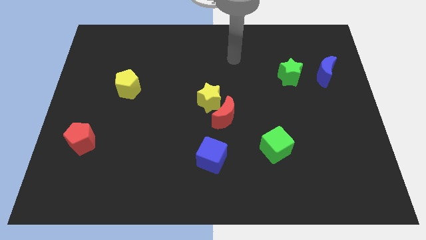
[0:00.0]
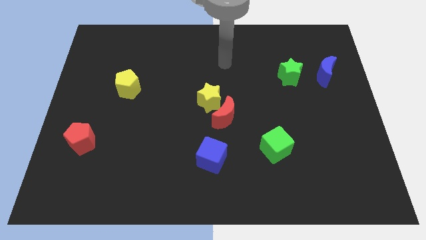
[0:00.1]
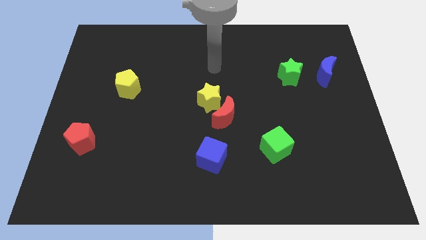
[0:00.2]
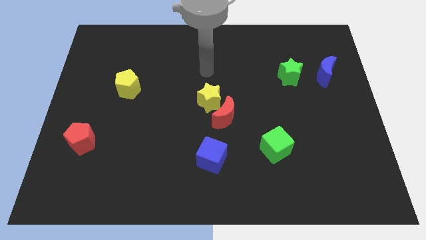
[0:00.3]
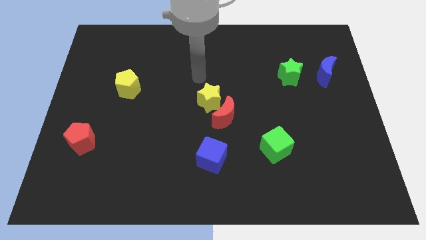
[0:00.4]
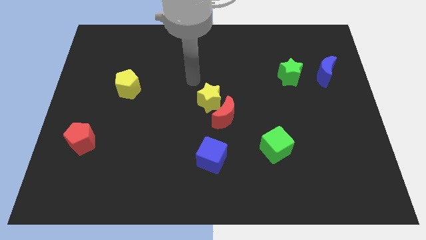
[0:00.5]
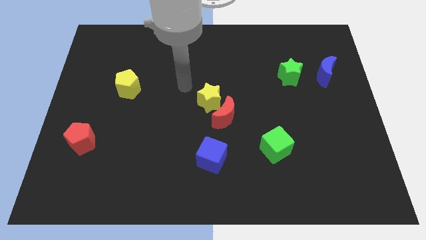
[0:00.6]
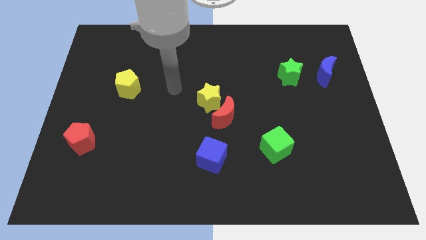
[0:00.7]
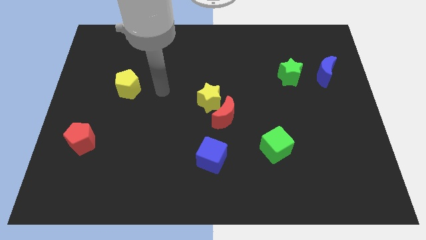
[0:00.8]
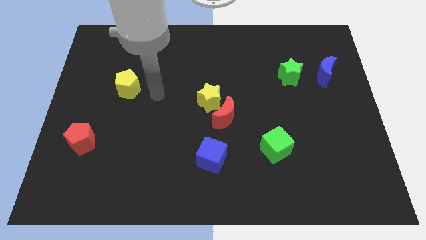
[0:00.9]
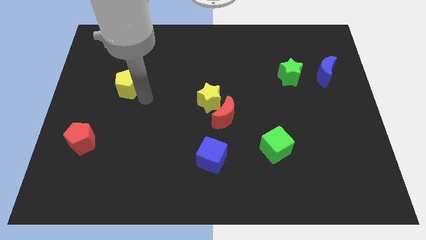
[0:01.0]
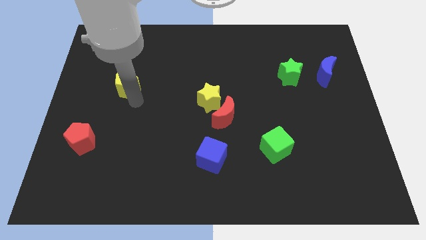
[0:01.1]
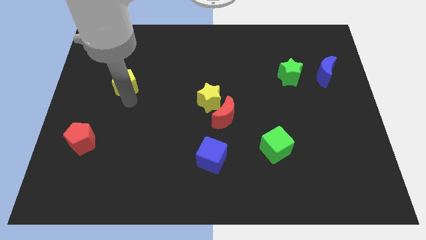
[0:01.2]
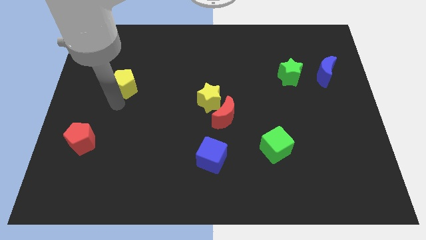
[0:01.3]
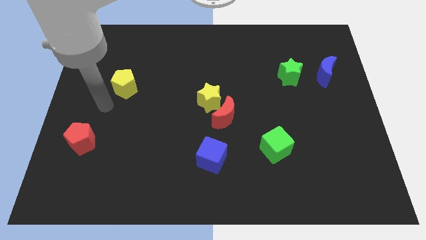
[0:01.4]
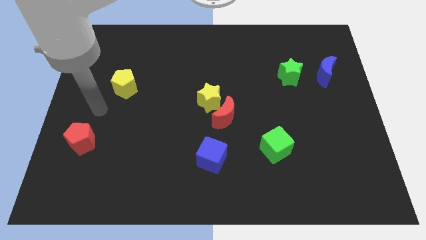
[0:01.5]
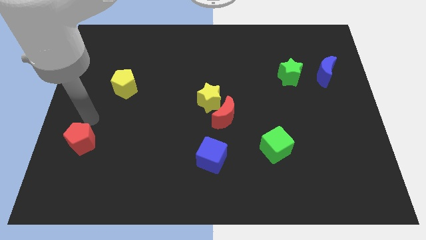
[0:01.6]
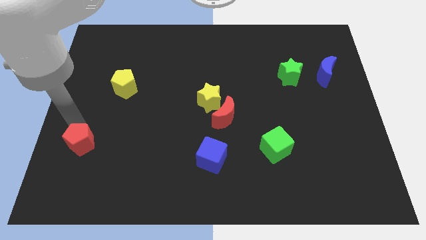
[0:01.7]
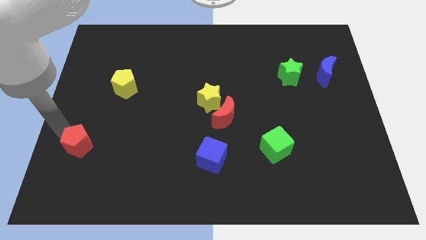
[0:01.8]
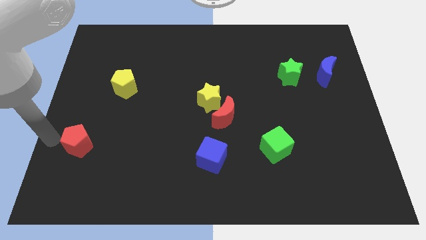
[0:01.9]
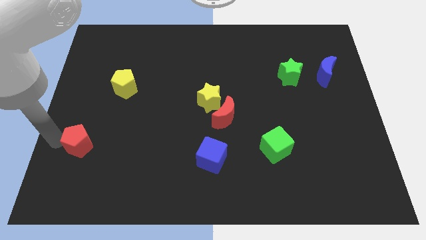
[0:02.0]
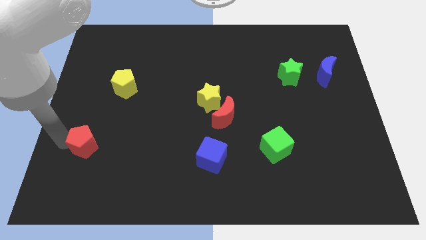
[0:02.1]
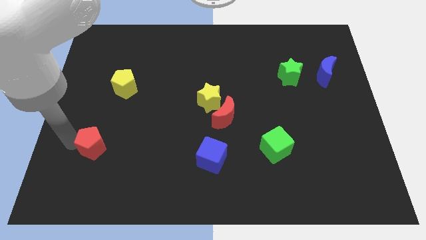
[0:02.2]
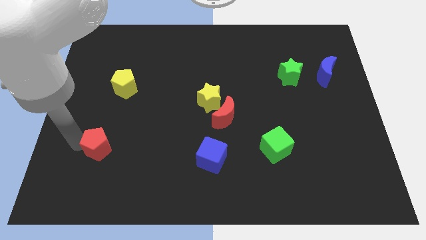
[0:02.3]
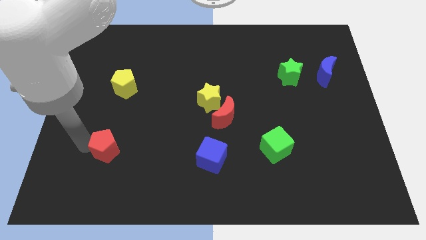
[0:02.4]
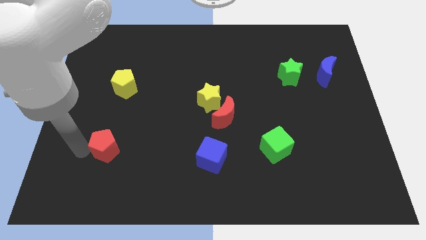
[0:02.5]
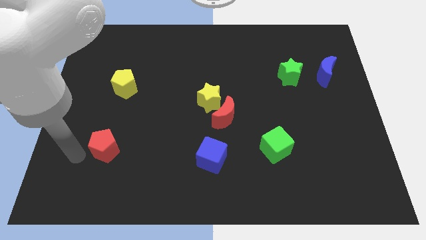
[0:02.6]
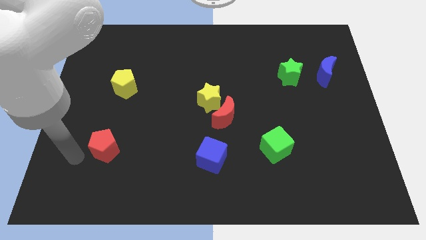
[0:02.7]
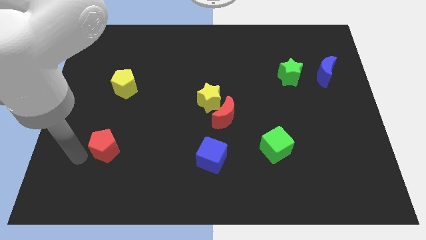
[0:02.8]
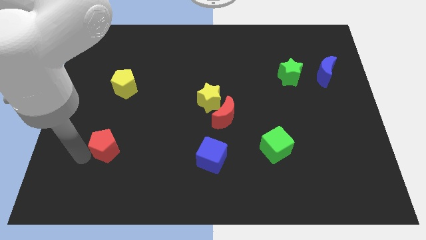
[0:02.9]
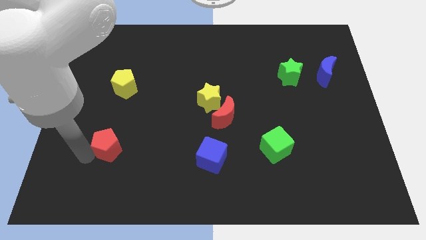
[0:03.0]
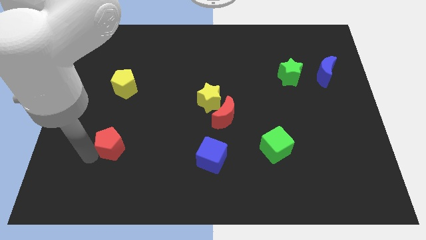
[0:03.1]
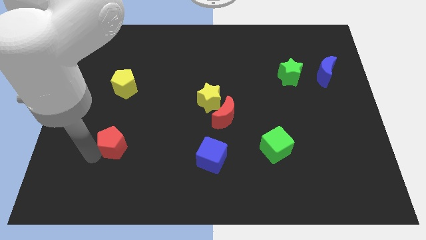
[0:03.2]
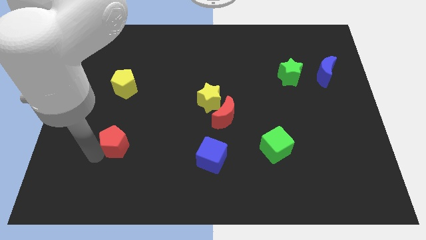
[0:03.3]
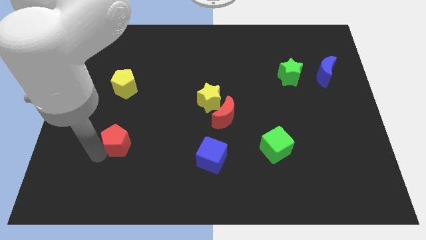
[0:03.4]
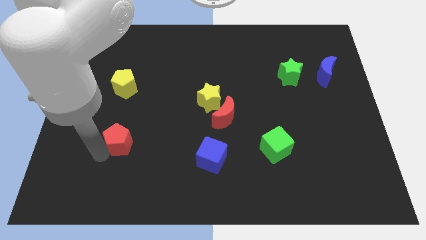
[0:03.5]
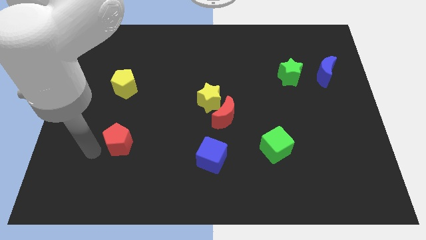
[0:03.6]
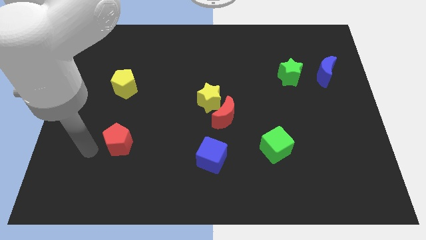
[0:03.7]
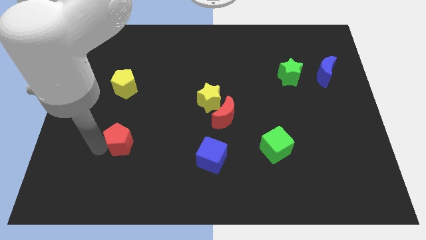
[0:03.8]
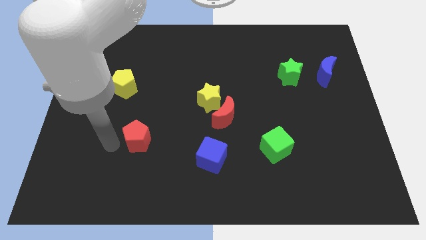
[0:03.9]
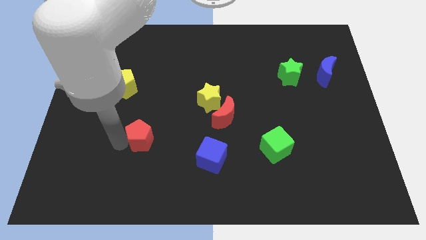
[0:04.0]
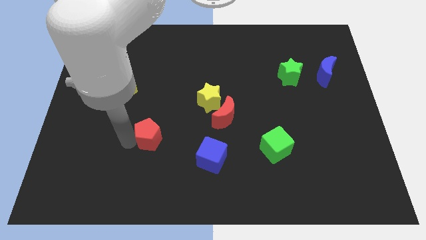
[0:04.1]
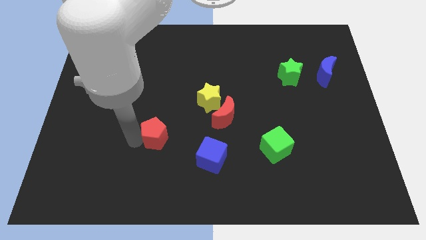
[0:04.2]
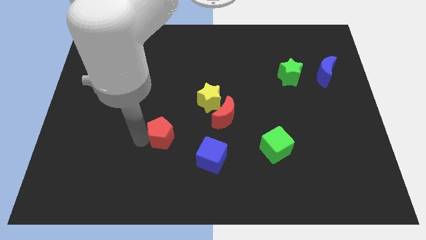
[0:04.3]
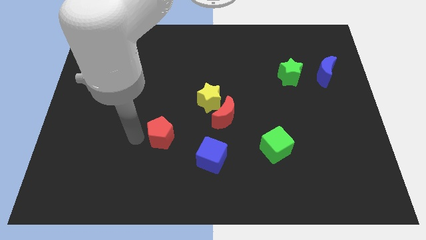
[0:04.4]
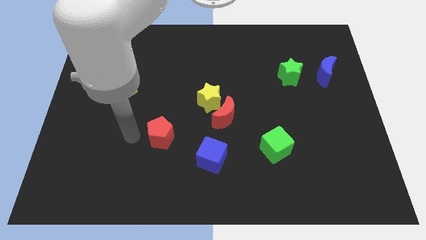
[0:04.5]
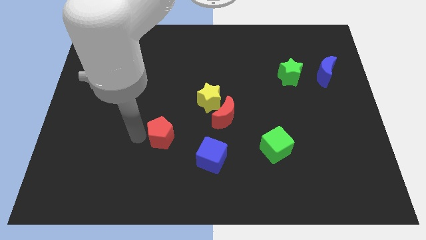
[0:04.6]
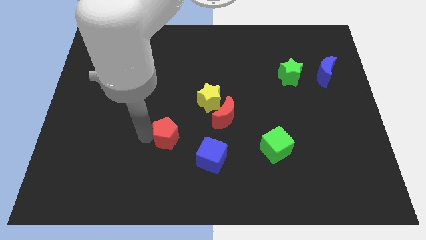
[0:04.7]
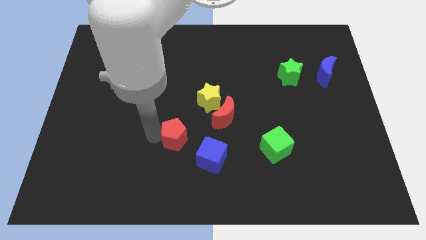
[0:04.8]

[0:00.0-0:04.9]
push the red pentagon right

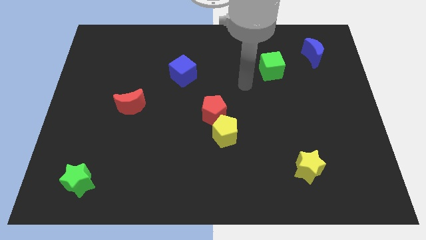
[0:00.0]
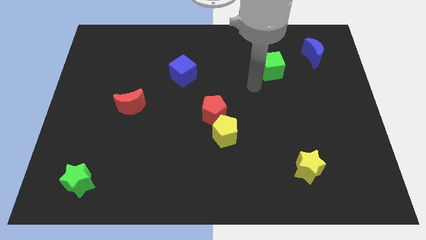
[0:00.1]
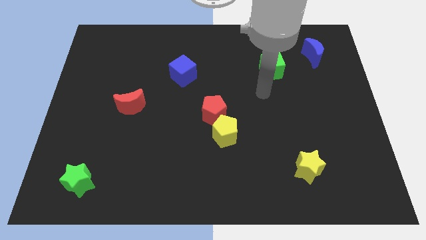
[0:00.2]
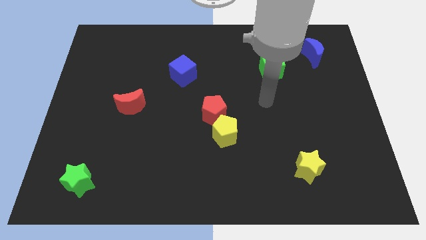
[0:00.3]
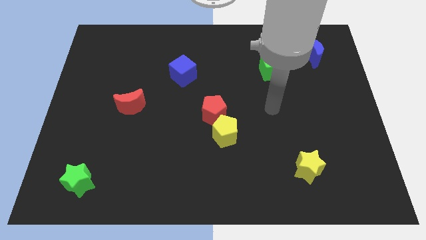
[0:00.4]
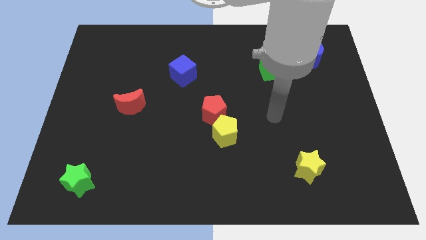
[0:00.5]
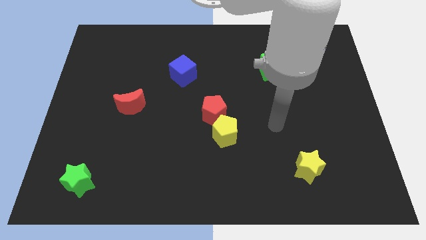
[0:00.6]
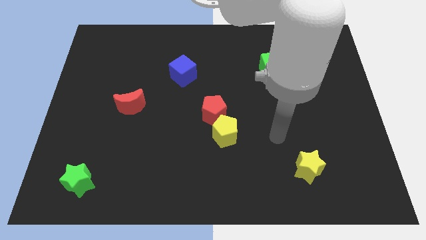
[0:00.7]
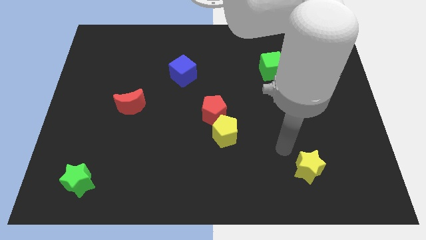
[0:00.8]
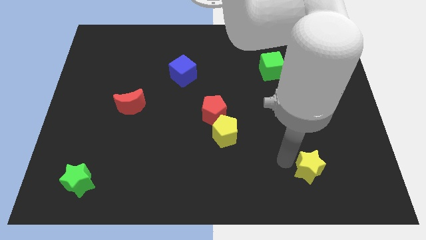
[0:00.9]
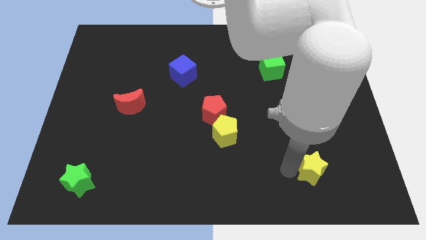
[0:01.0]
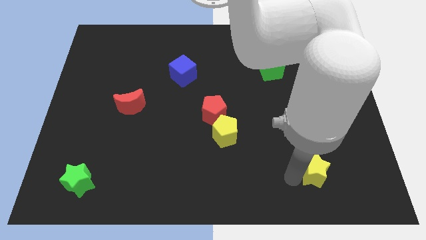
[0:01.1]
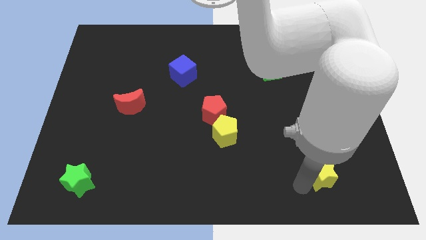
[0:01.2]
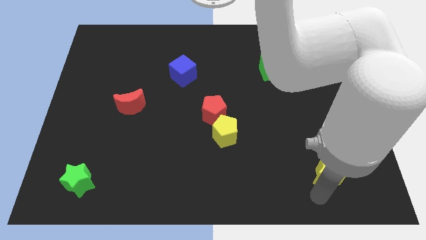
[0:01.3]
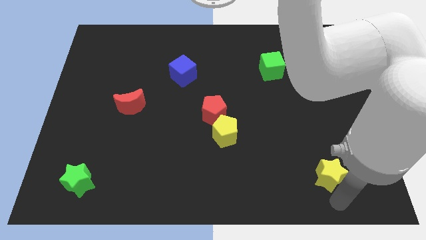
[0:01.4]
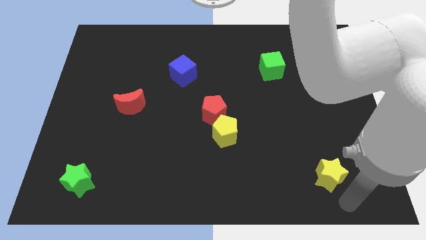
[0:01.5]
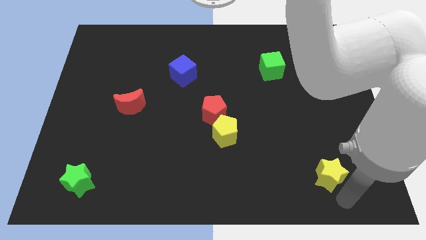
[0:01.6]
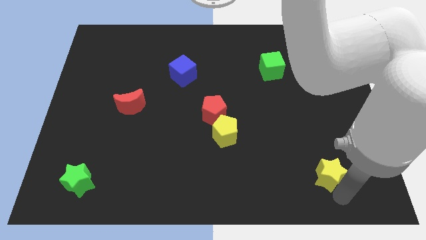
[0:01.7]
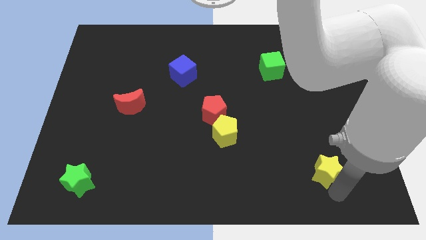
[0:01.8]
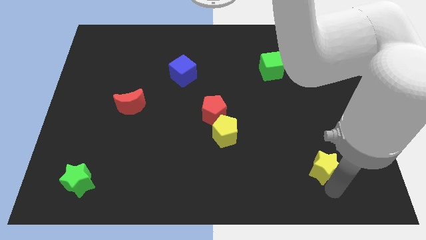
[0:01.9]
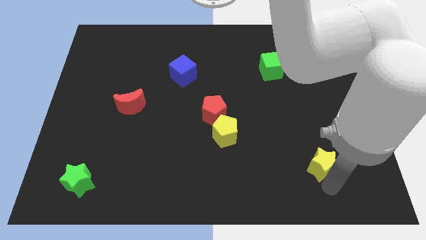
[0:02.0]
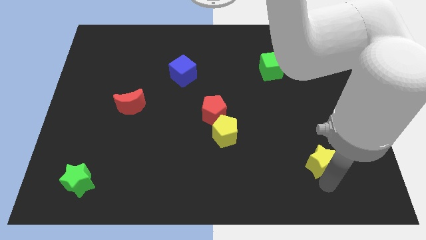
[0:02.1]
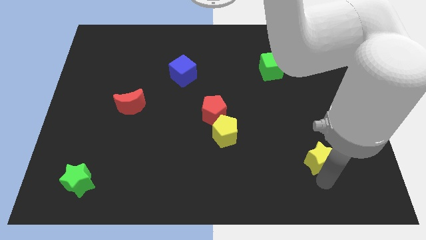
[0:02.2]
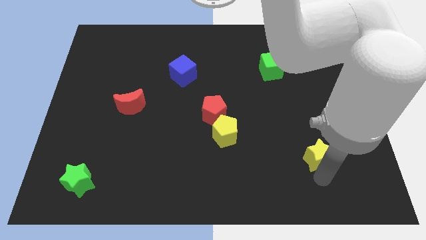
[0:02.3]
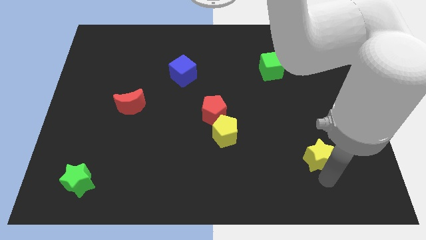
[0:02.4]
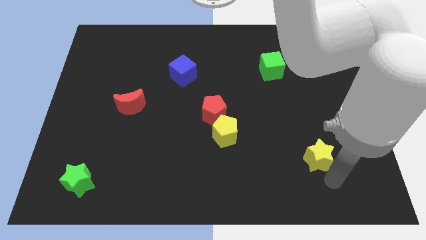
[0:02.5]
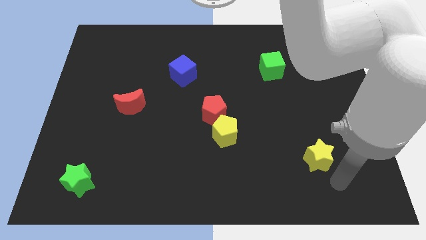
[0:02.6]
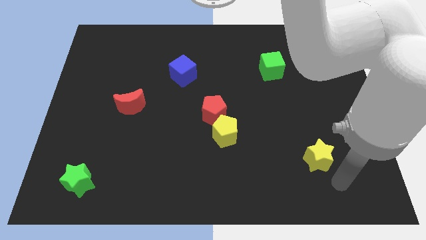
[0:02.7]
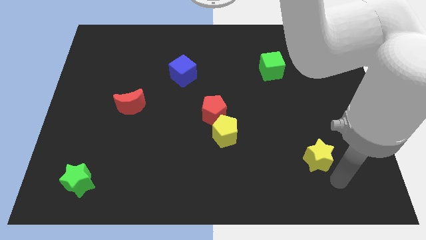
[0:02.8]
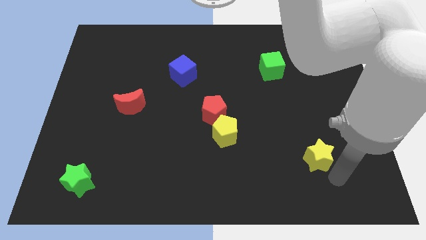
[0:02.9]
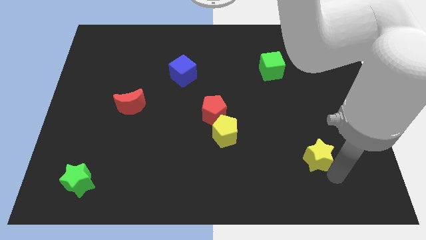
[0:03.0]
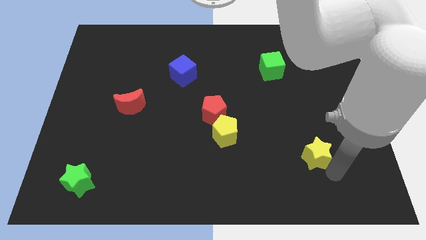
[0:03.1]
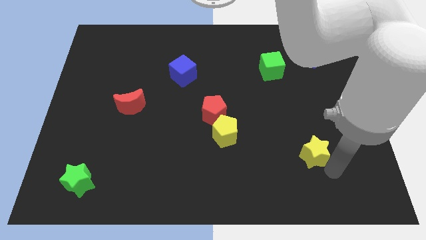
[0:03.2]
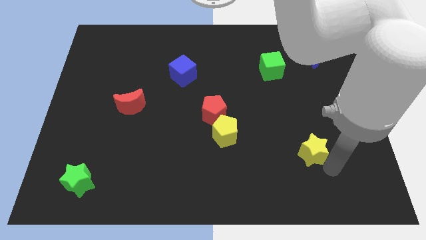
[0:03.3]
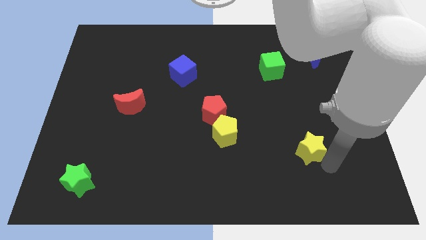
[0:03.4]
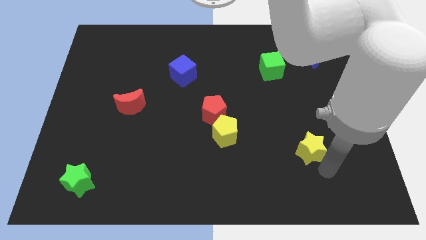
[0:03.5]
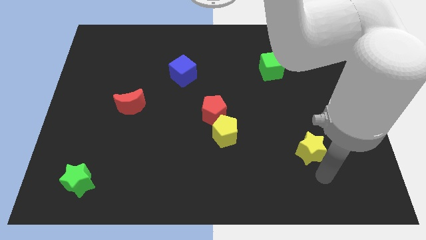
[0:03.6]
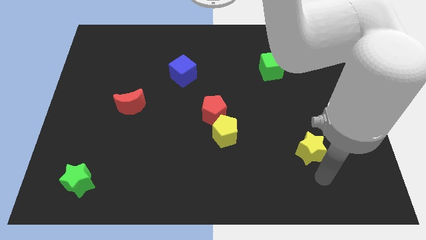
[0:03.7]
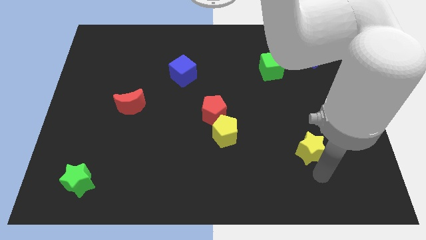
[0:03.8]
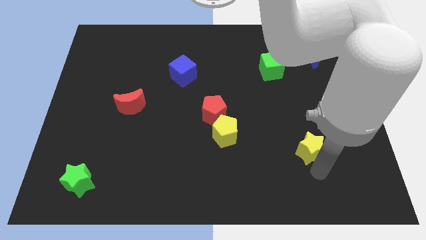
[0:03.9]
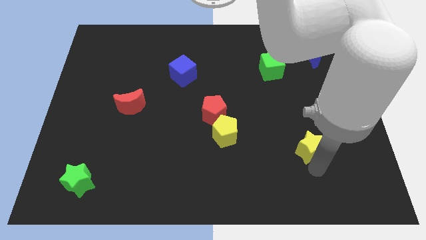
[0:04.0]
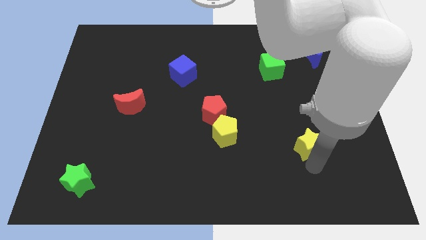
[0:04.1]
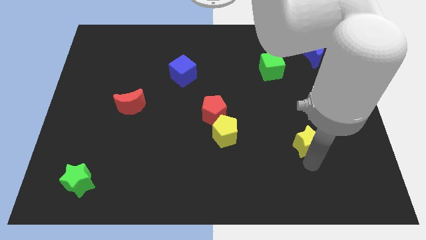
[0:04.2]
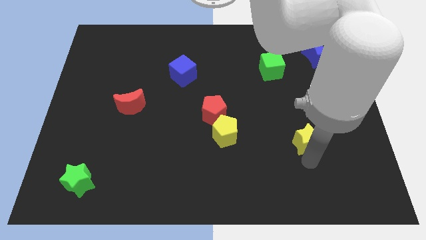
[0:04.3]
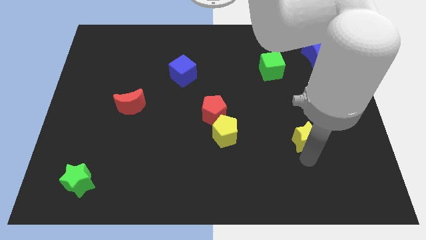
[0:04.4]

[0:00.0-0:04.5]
push the yellow star slightly upwards
